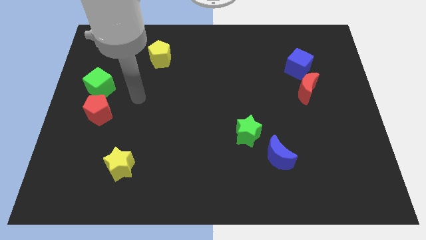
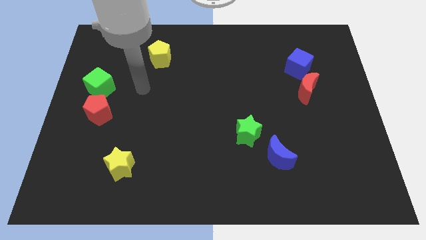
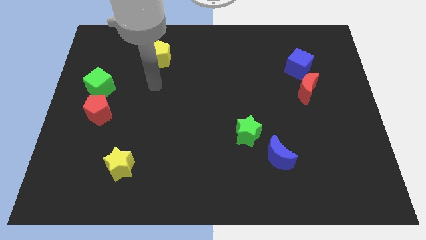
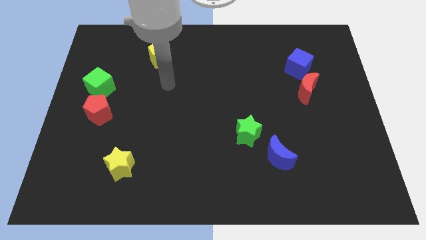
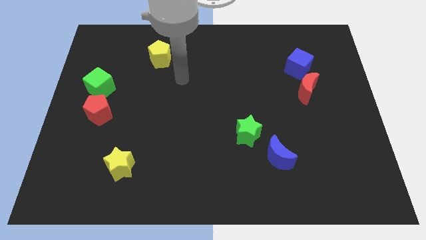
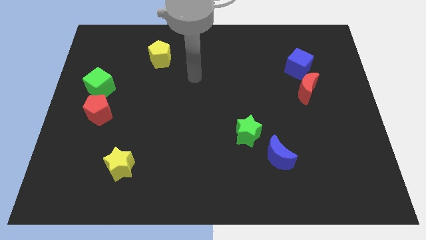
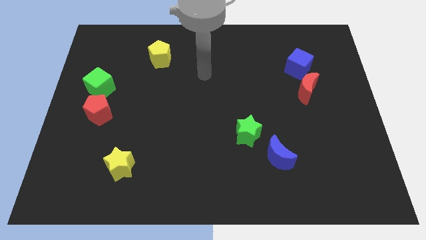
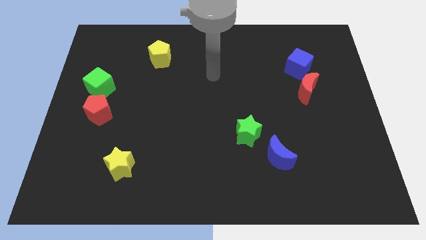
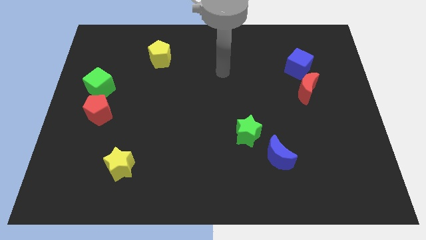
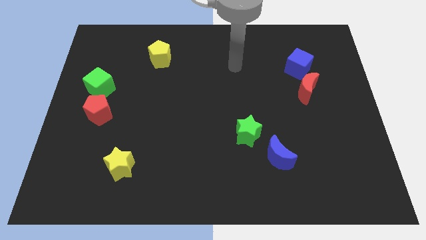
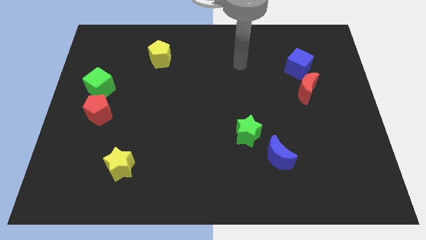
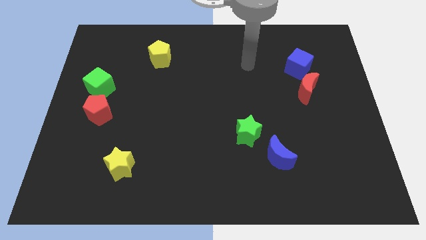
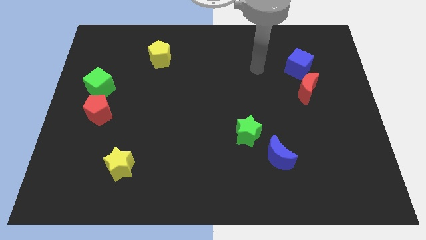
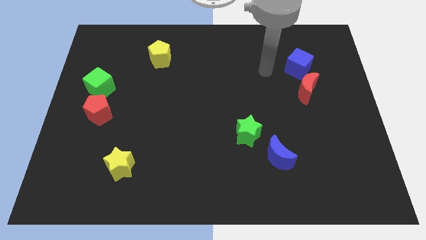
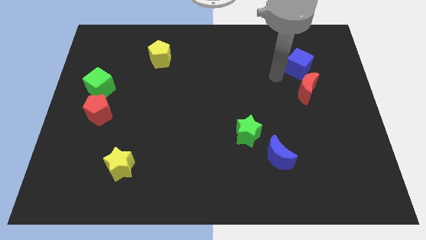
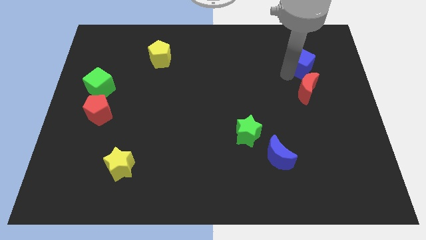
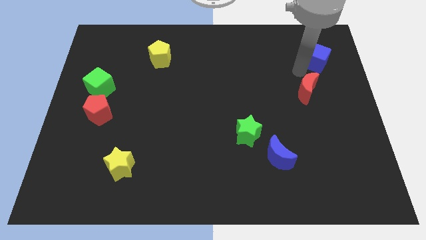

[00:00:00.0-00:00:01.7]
separate the red moon from the blue cube

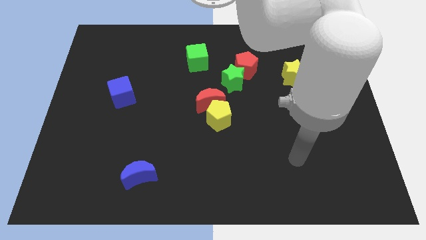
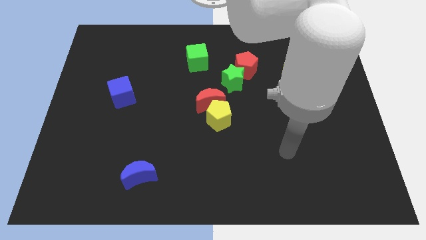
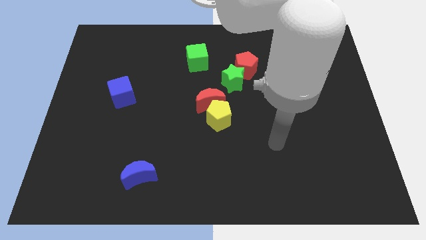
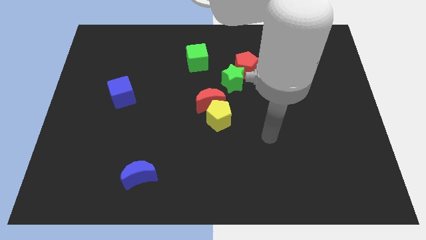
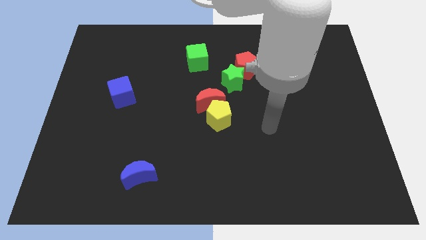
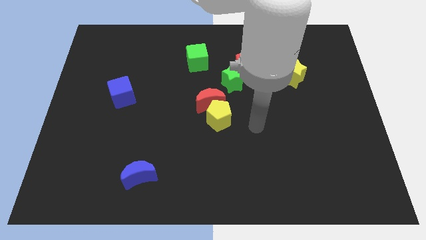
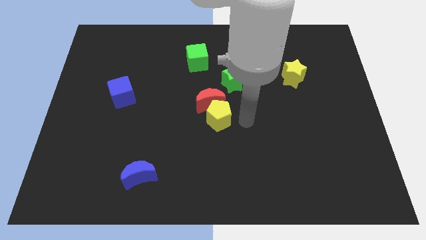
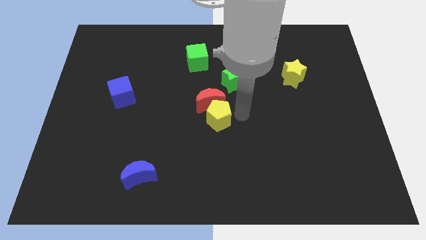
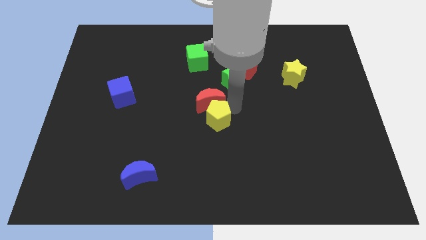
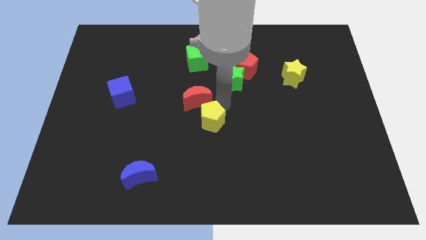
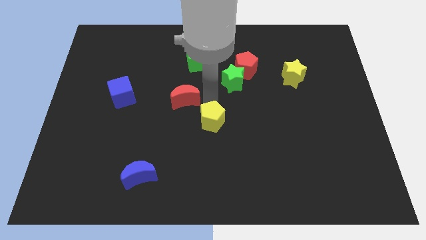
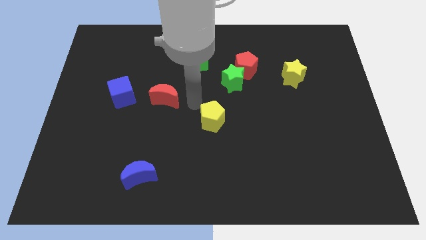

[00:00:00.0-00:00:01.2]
move the yellow pentagon away from the red moon

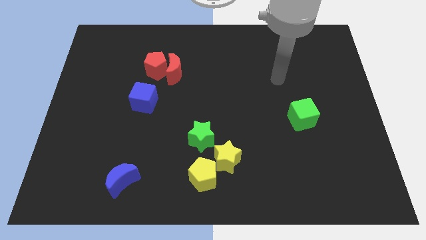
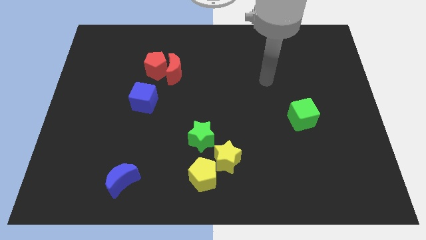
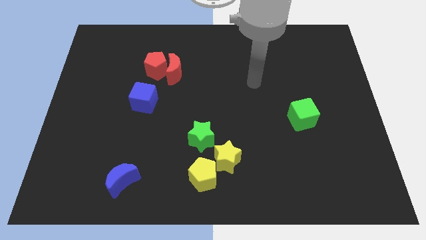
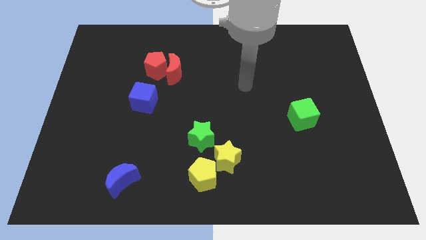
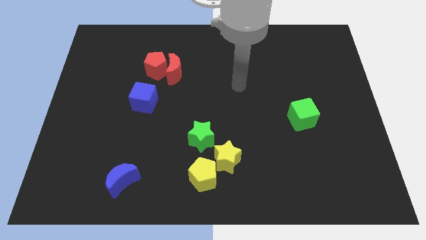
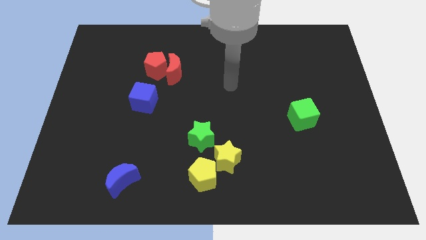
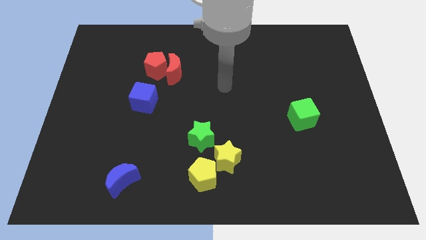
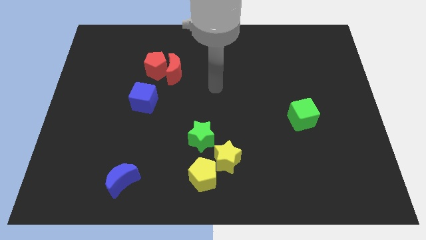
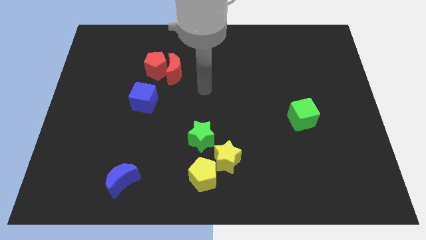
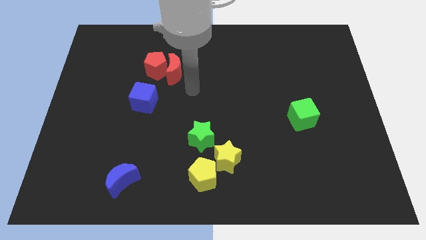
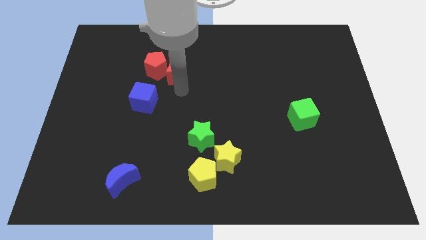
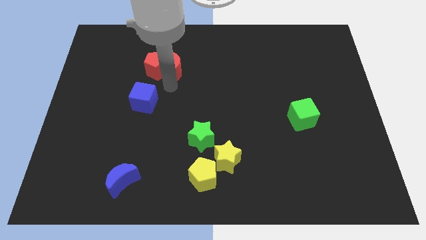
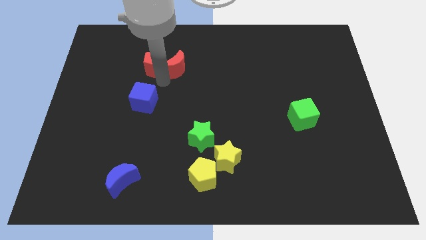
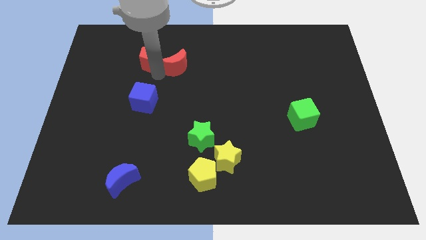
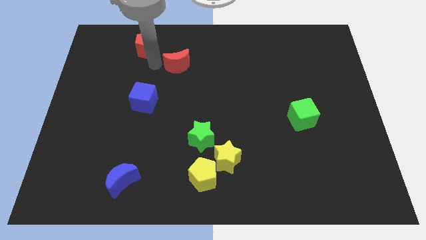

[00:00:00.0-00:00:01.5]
move the red moon away from the red pentagon

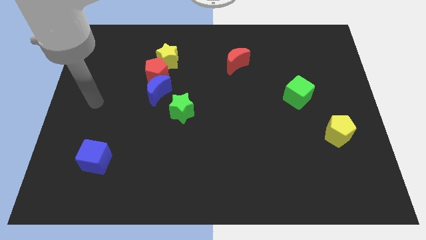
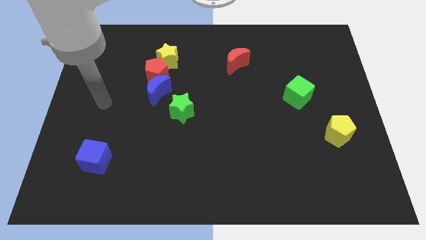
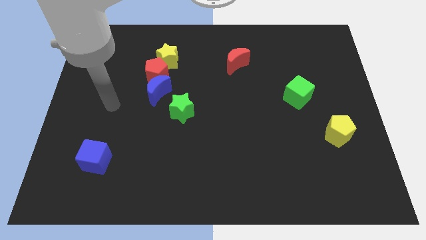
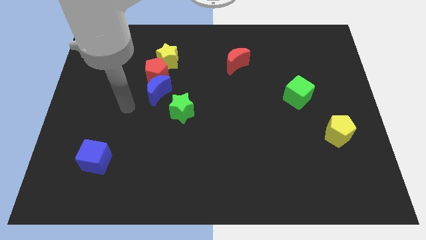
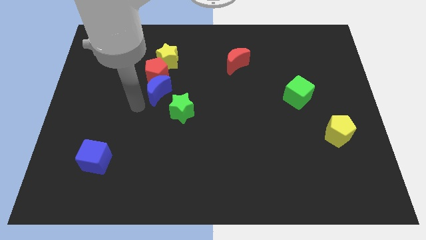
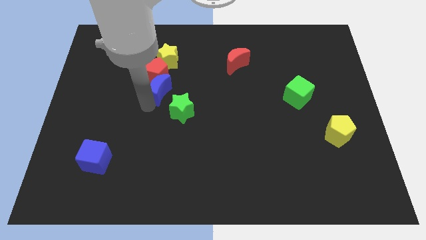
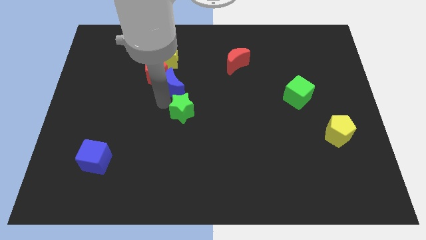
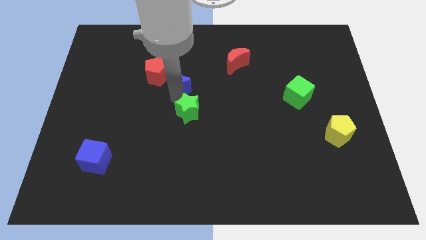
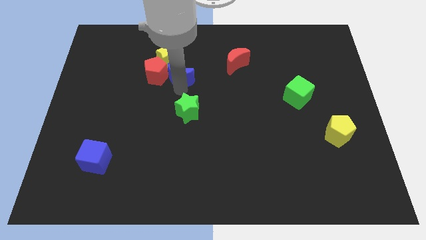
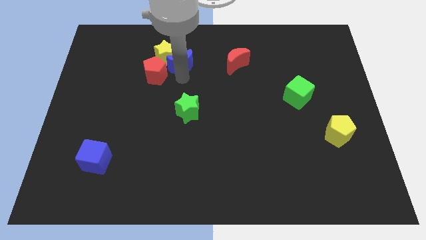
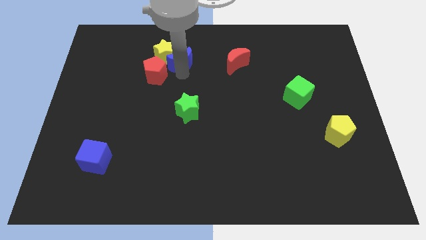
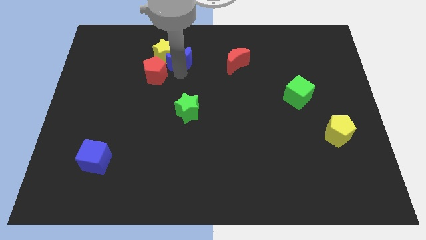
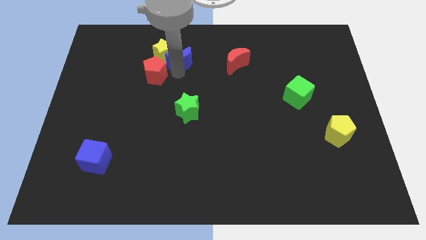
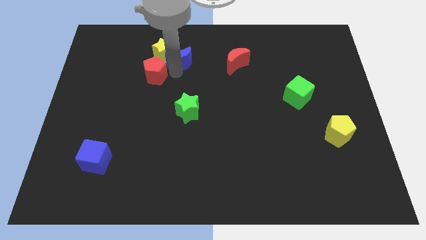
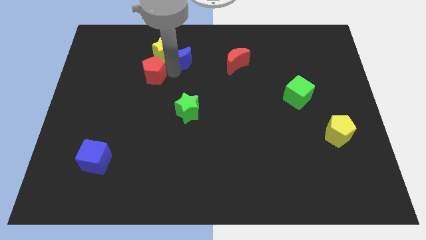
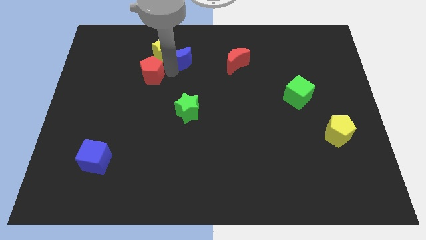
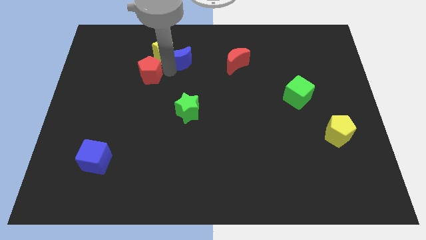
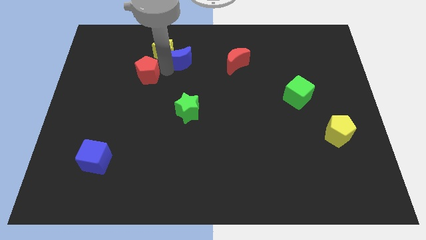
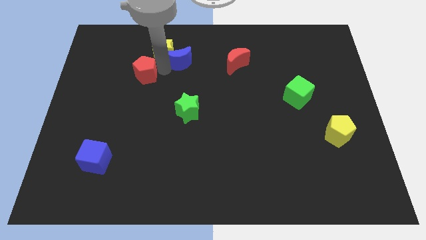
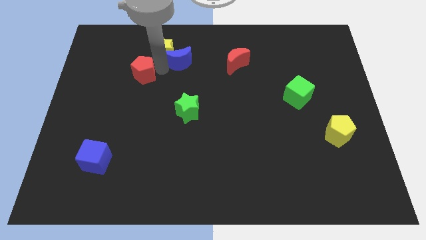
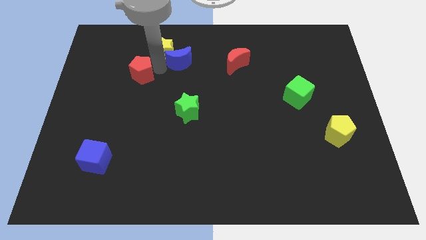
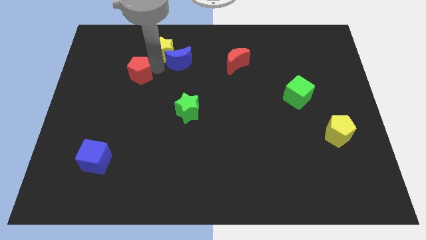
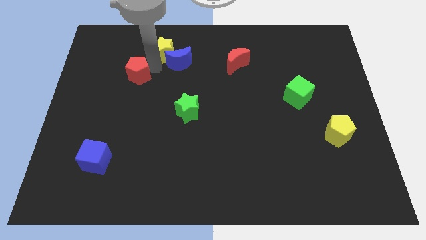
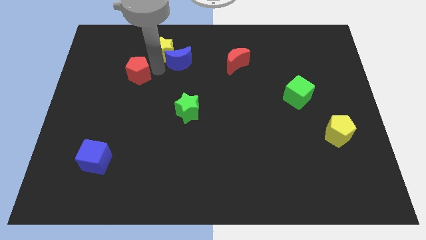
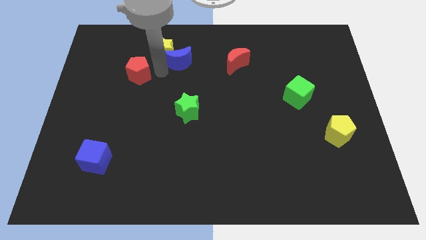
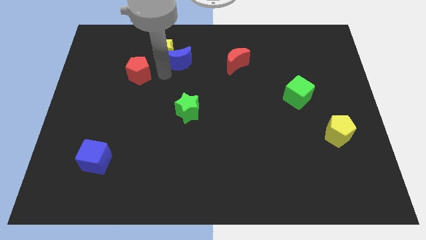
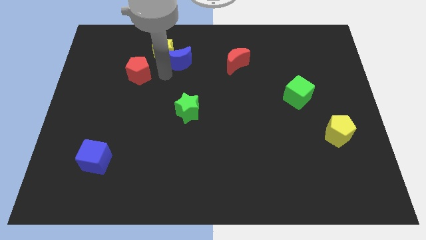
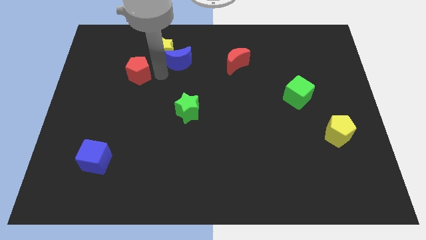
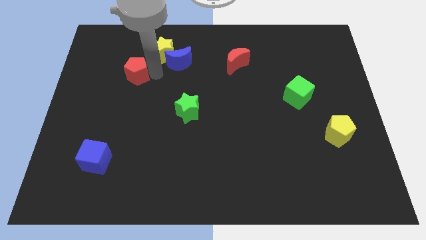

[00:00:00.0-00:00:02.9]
separate the red pentagon from the blue moon and yellow star

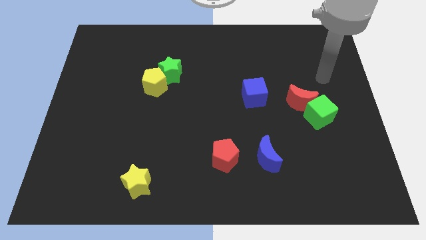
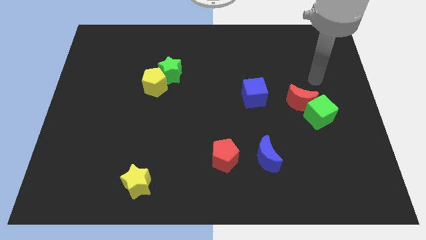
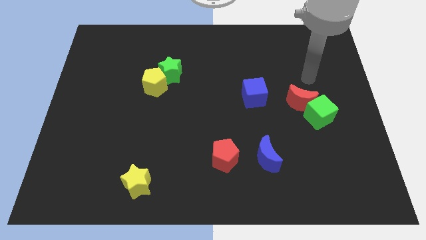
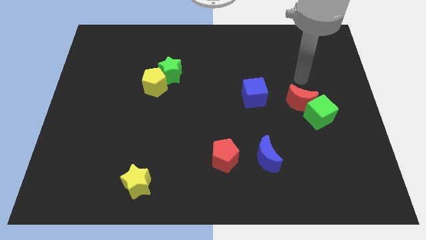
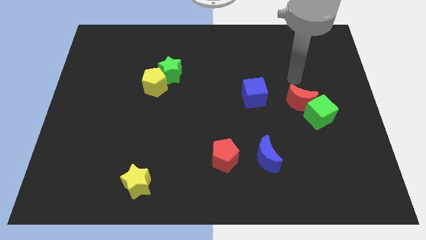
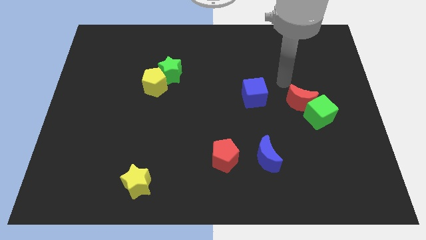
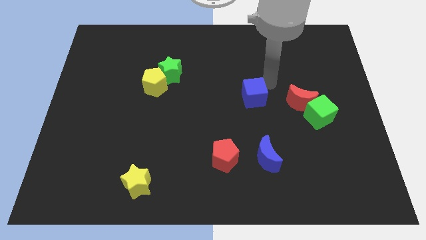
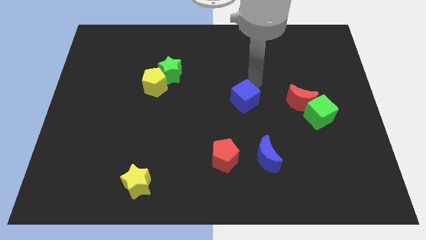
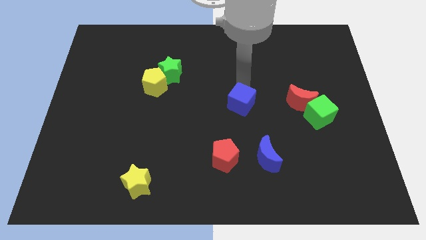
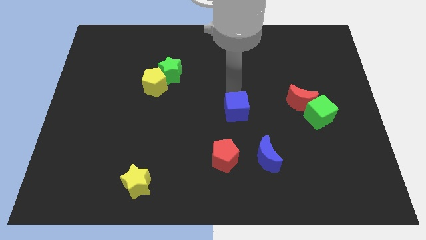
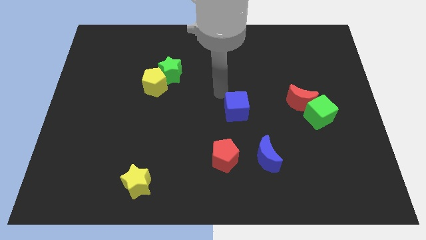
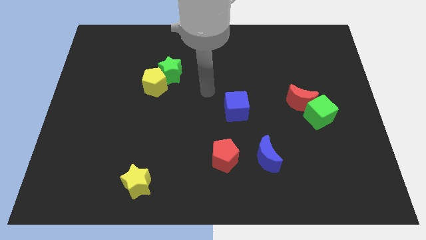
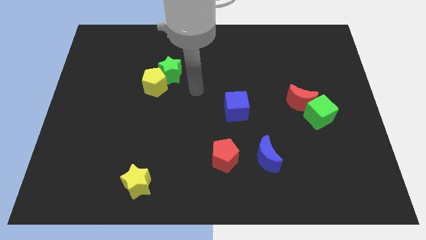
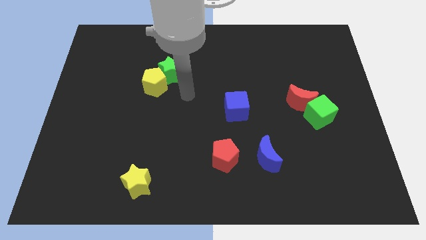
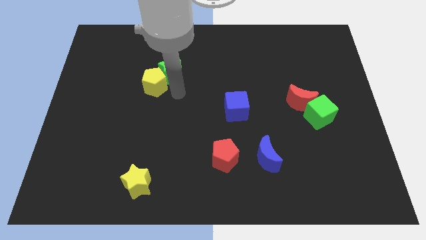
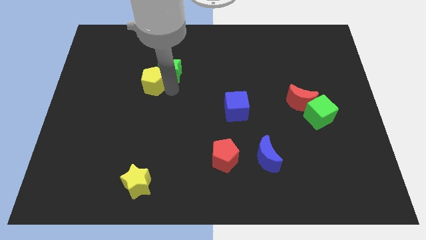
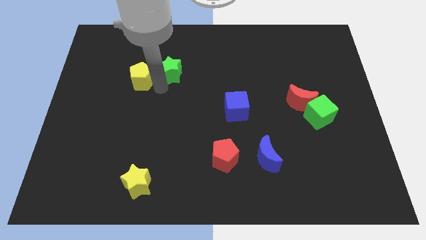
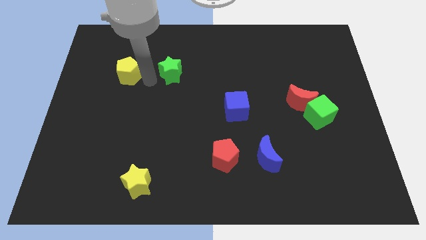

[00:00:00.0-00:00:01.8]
move the green star away from the yellow pentagon

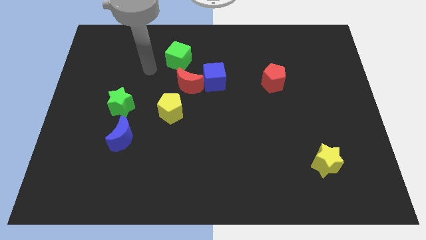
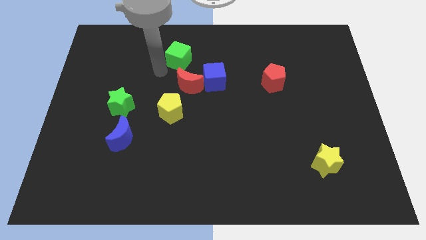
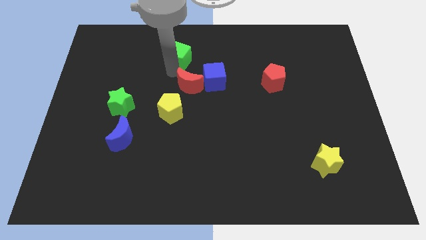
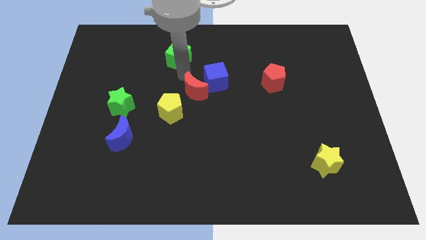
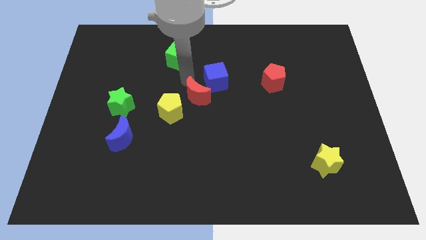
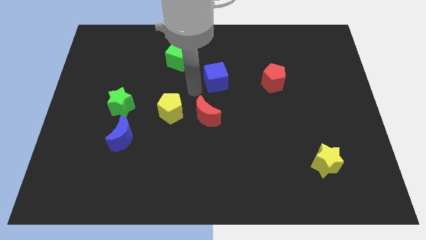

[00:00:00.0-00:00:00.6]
move the blue cube away from the red moon
